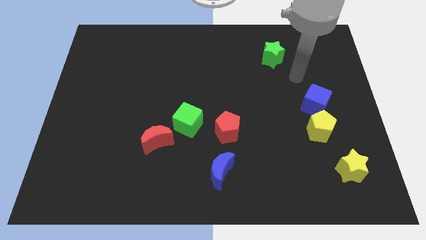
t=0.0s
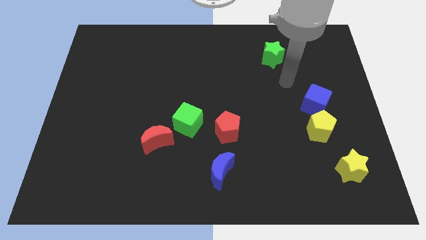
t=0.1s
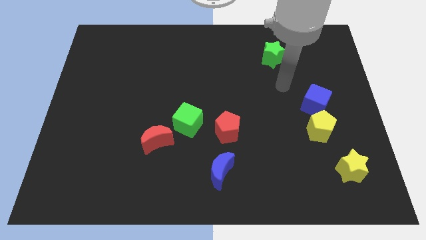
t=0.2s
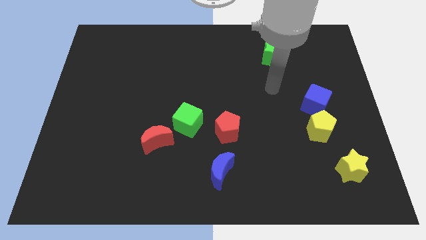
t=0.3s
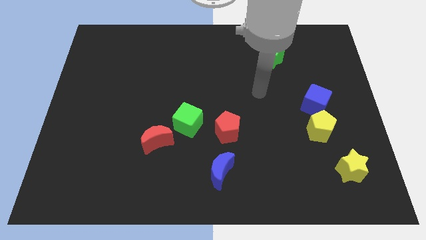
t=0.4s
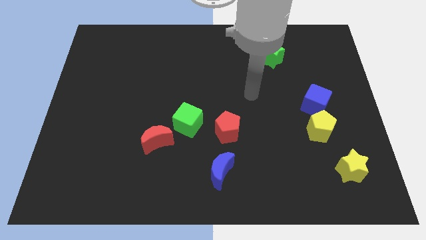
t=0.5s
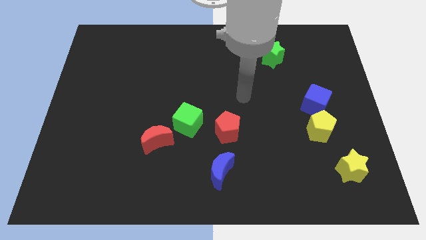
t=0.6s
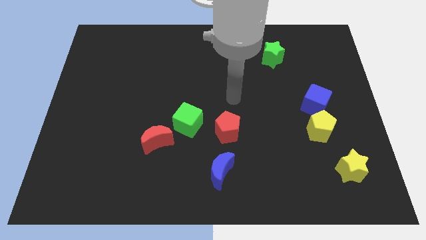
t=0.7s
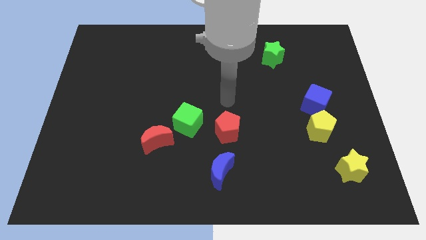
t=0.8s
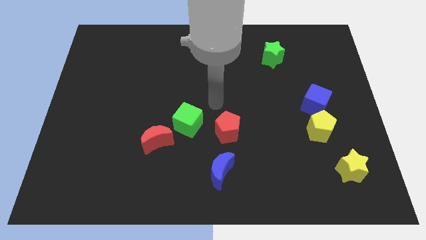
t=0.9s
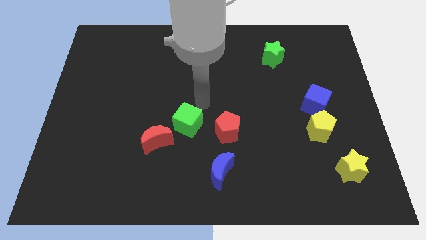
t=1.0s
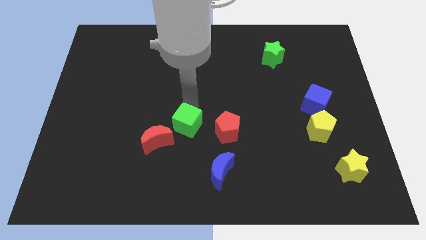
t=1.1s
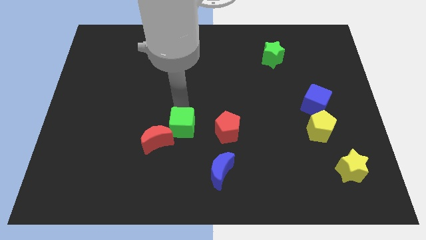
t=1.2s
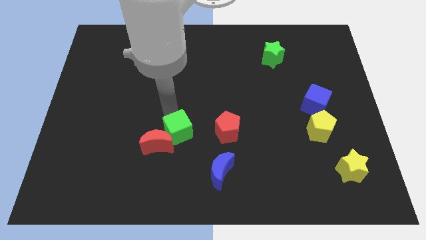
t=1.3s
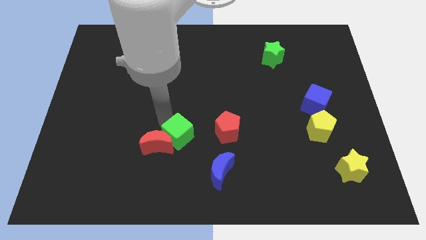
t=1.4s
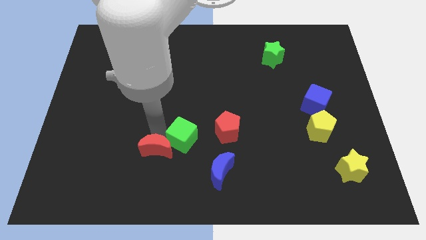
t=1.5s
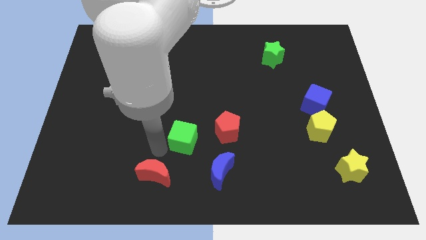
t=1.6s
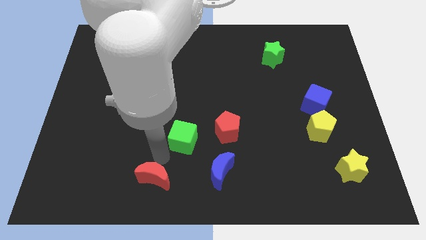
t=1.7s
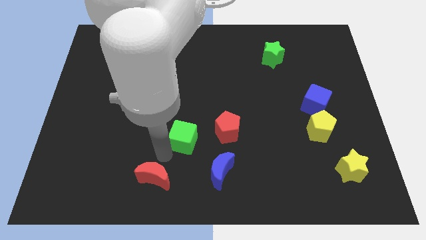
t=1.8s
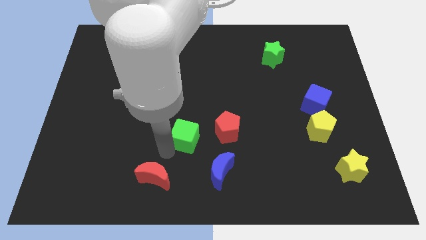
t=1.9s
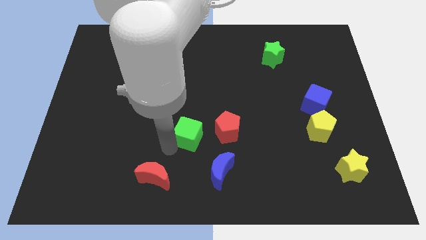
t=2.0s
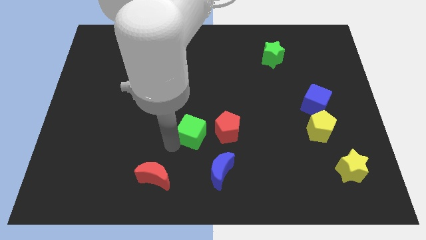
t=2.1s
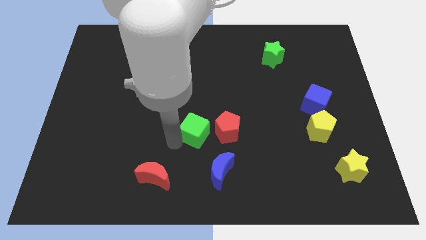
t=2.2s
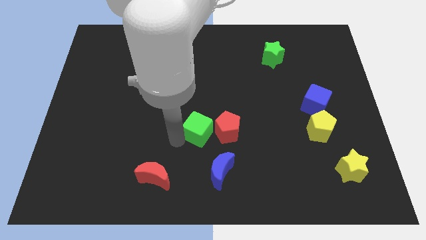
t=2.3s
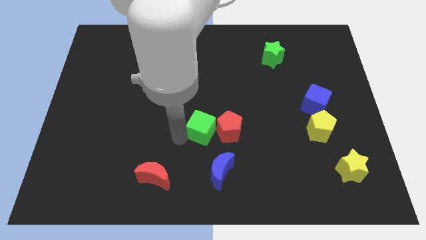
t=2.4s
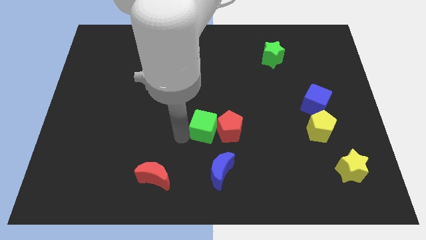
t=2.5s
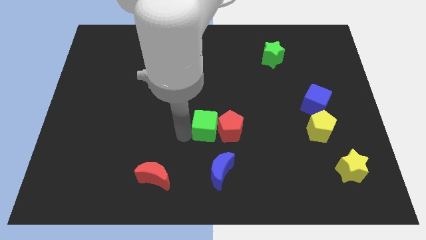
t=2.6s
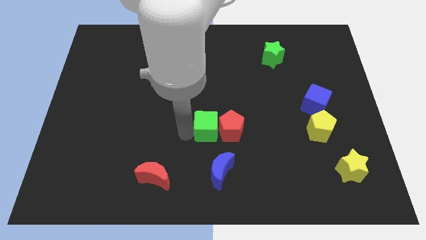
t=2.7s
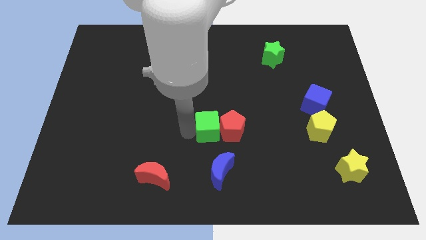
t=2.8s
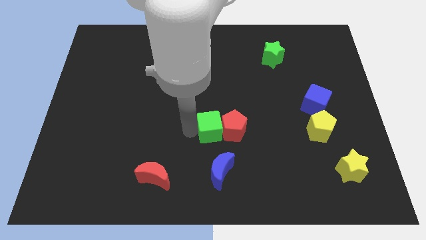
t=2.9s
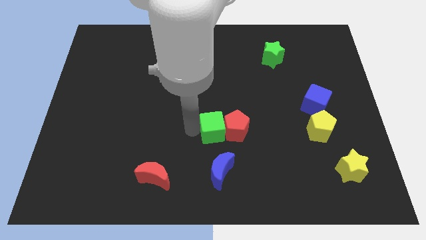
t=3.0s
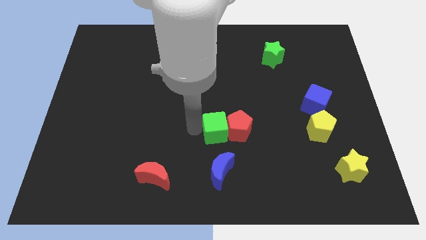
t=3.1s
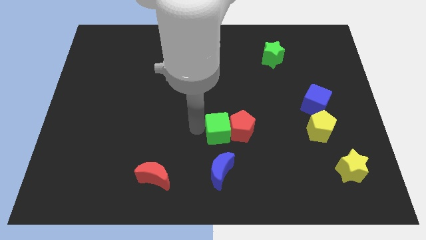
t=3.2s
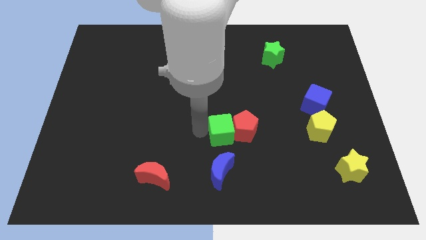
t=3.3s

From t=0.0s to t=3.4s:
move the green cube a little bit right

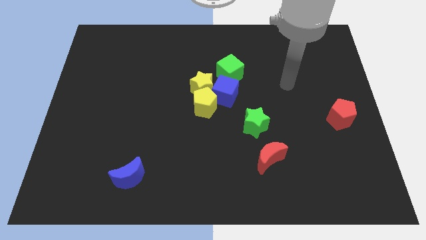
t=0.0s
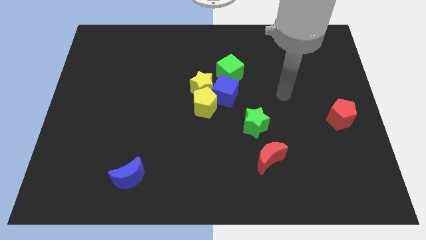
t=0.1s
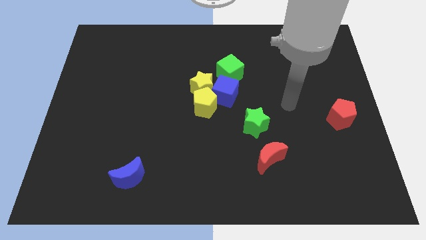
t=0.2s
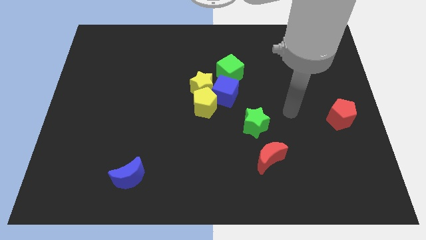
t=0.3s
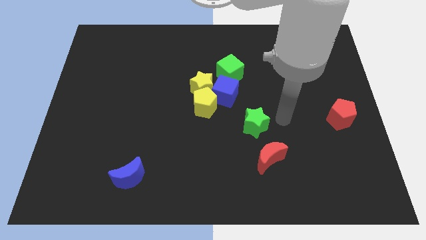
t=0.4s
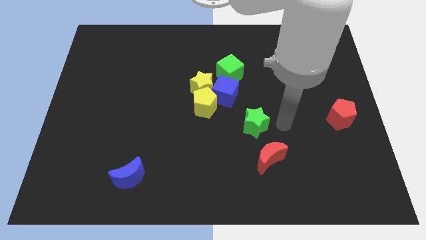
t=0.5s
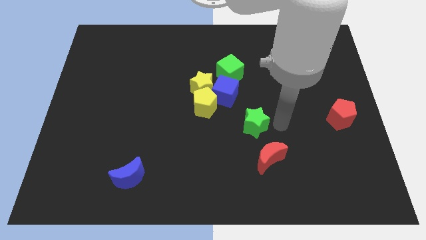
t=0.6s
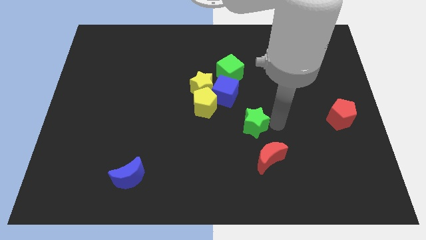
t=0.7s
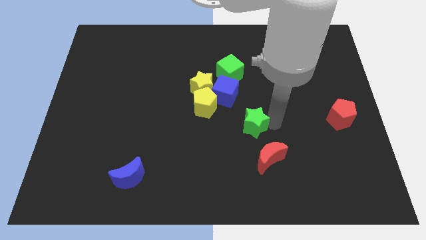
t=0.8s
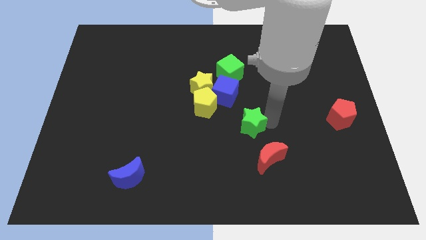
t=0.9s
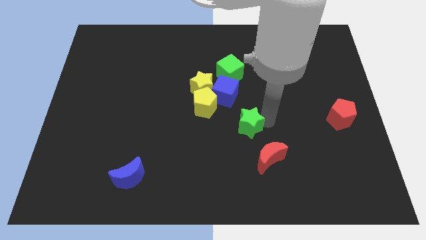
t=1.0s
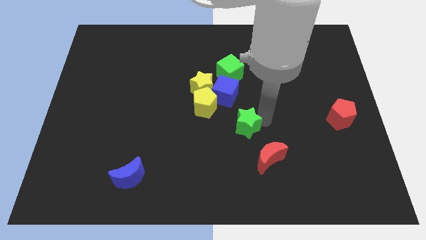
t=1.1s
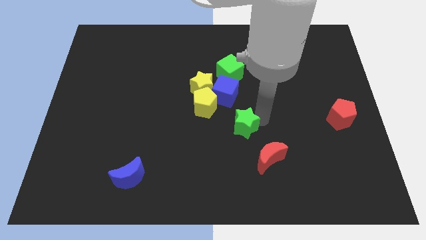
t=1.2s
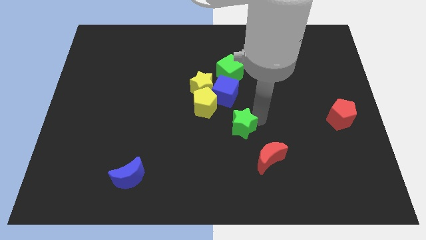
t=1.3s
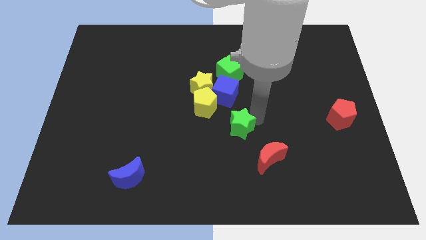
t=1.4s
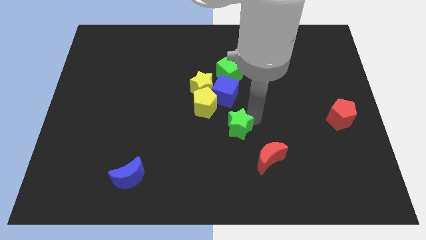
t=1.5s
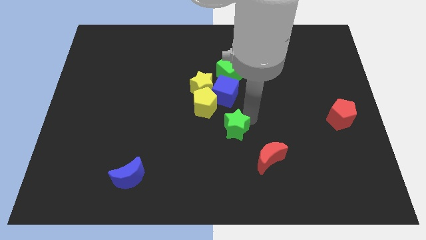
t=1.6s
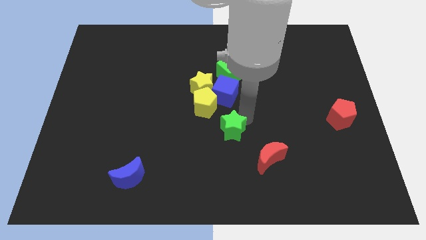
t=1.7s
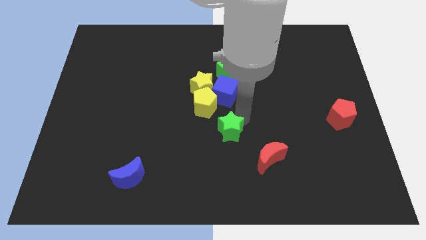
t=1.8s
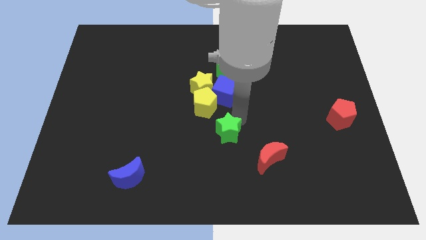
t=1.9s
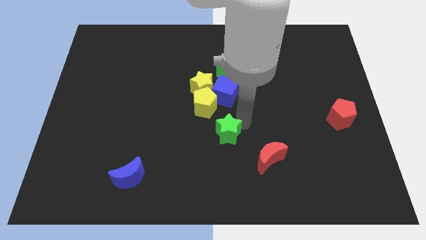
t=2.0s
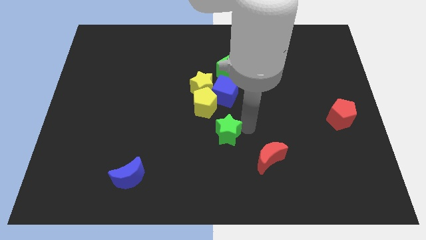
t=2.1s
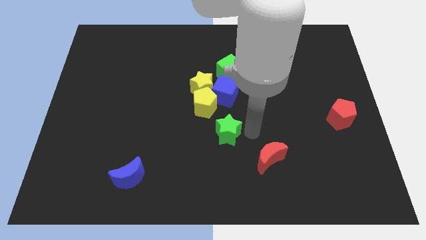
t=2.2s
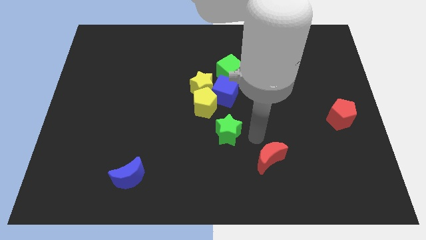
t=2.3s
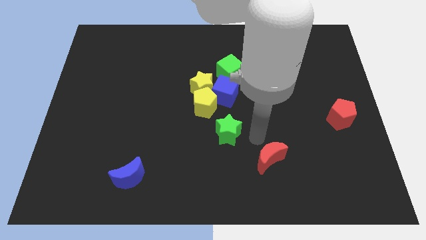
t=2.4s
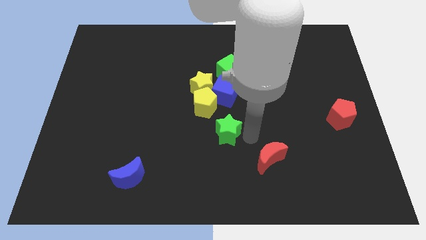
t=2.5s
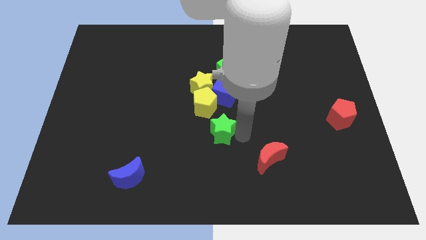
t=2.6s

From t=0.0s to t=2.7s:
slightly push the green star to the left

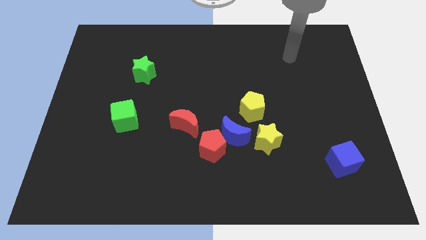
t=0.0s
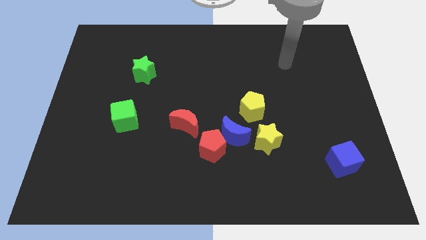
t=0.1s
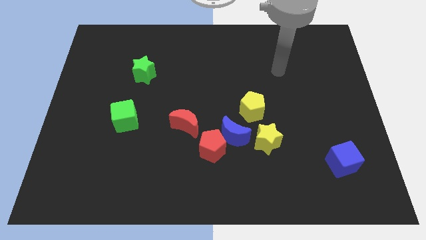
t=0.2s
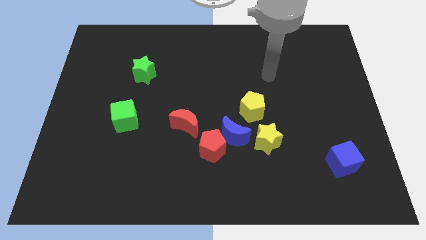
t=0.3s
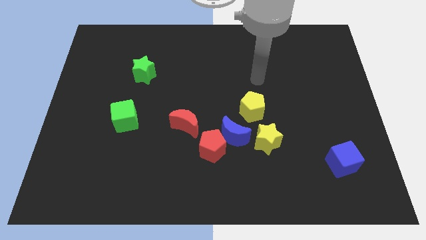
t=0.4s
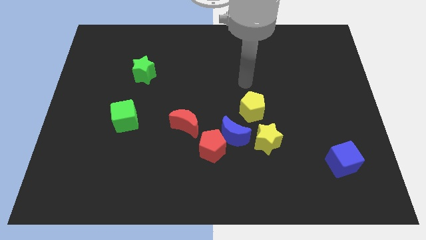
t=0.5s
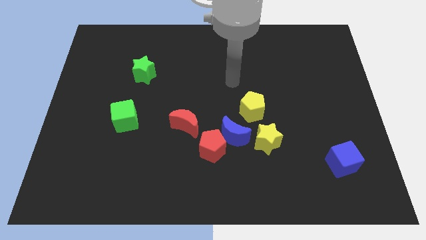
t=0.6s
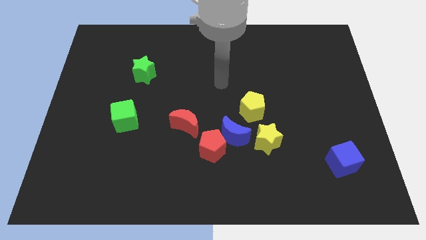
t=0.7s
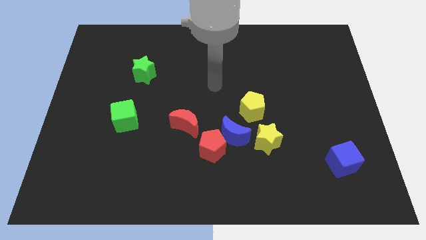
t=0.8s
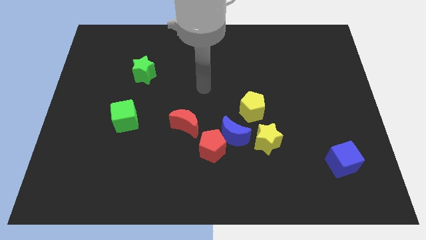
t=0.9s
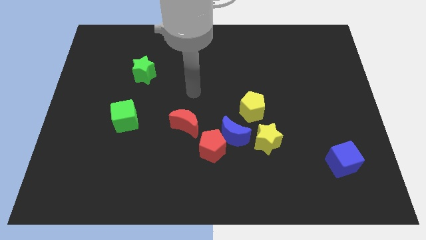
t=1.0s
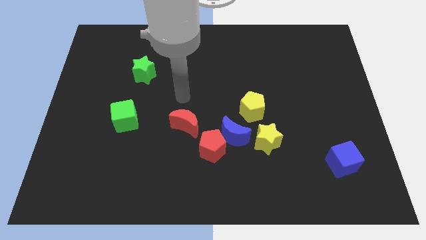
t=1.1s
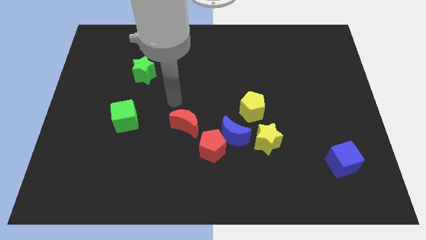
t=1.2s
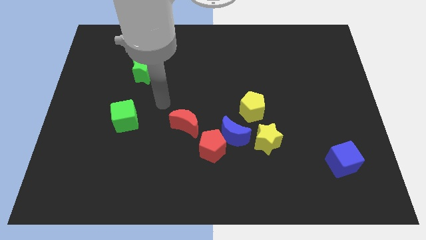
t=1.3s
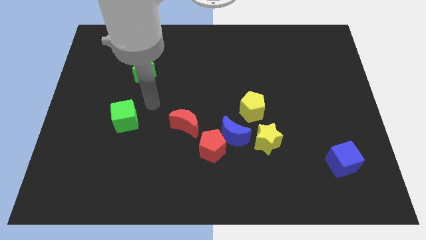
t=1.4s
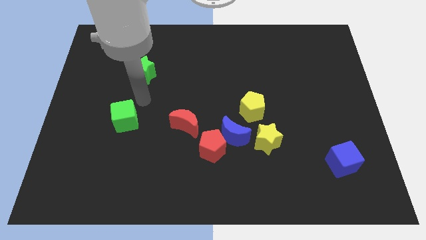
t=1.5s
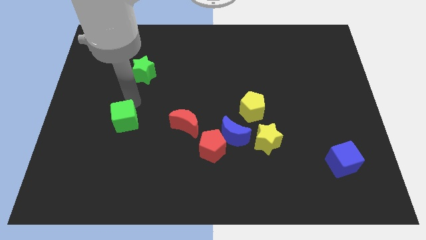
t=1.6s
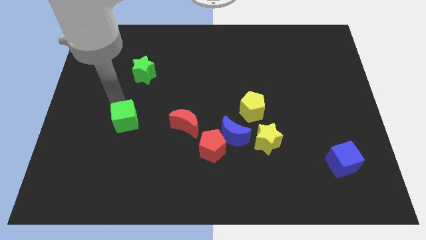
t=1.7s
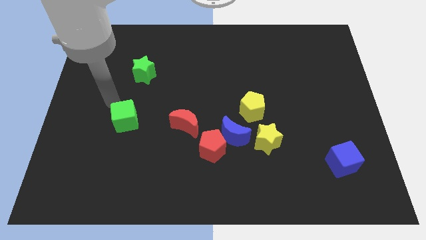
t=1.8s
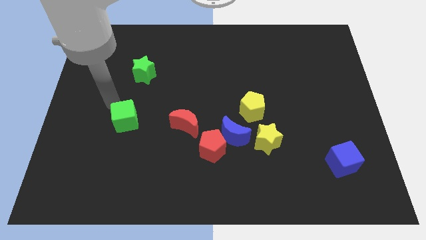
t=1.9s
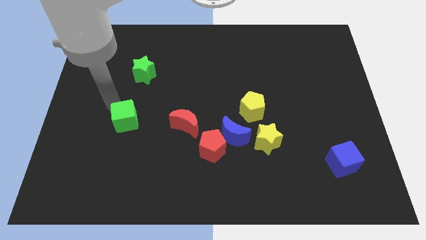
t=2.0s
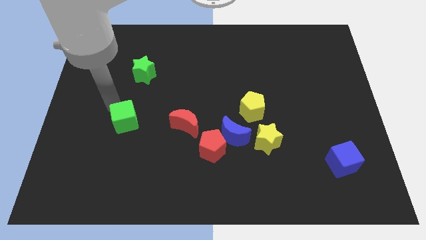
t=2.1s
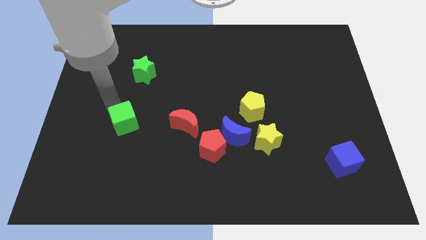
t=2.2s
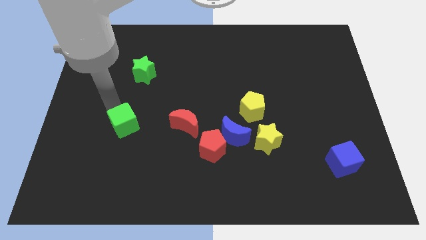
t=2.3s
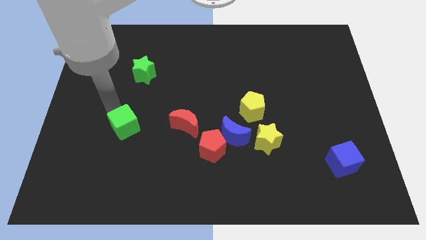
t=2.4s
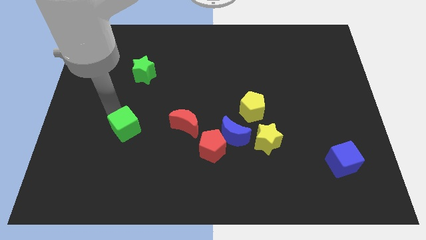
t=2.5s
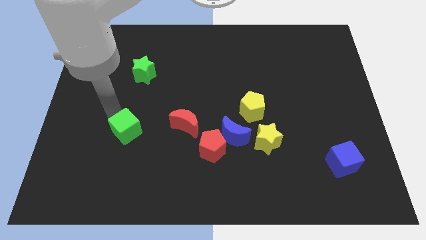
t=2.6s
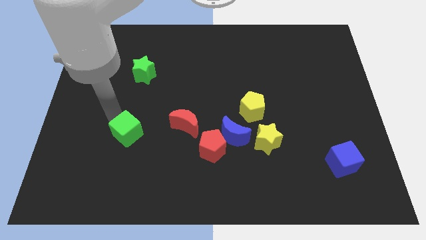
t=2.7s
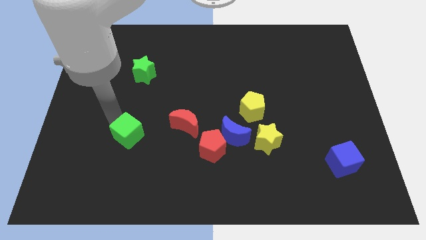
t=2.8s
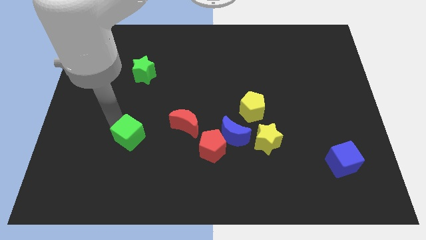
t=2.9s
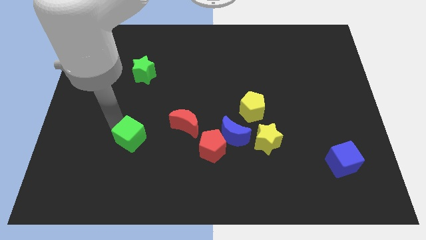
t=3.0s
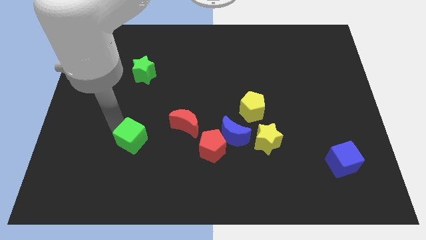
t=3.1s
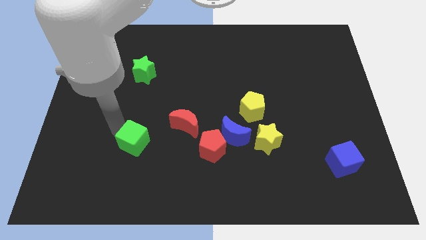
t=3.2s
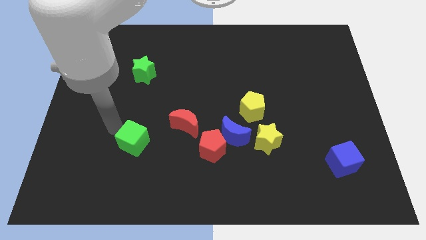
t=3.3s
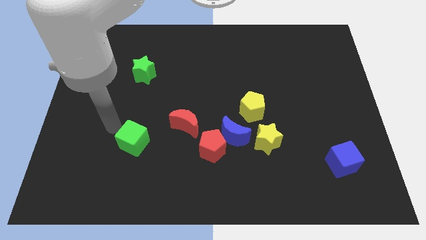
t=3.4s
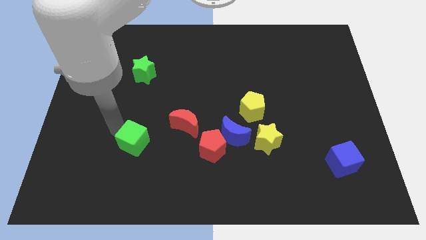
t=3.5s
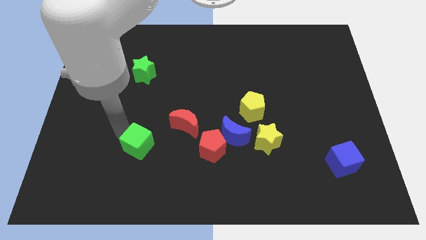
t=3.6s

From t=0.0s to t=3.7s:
move the green cube down and then to the right a bit
